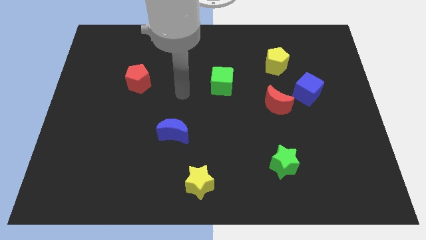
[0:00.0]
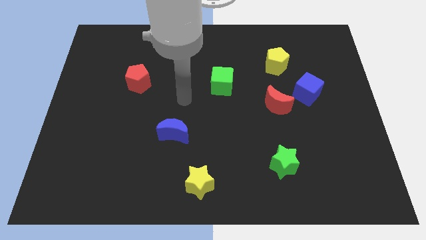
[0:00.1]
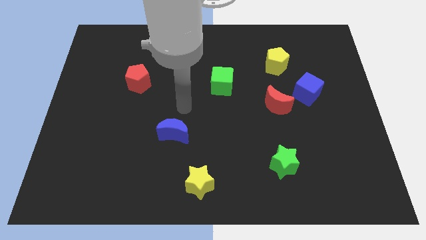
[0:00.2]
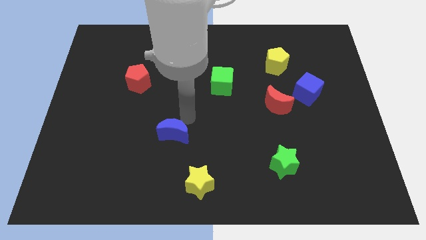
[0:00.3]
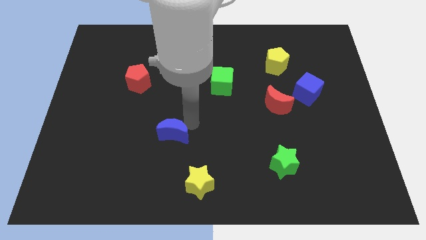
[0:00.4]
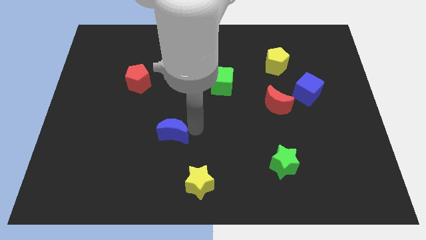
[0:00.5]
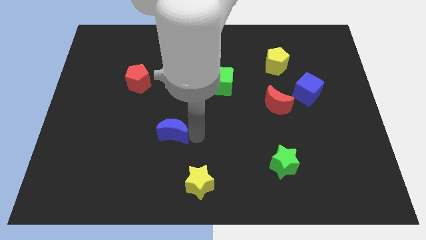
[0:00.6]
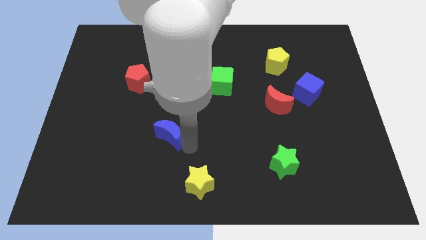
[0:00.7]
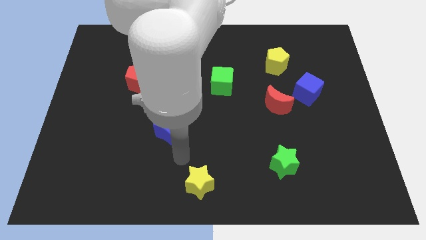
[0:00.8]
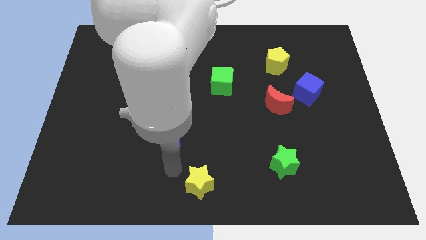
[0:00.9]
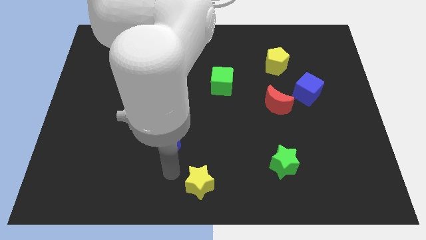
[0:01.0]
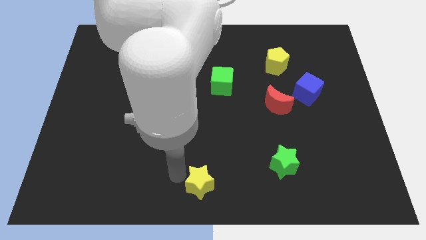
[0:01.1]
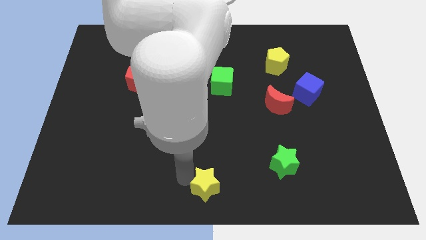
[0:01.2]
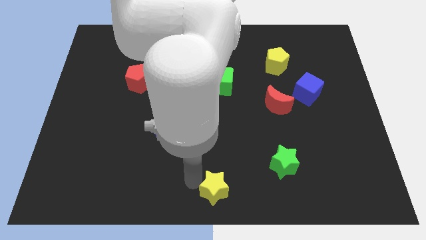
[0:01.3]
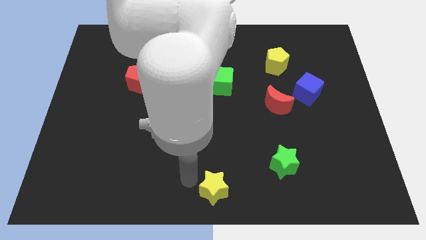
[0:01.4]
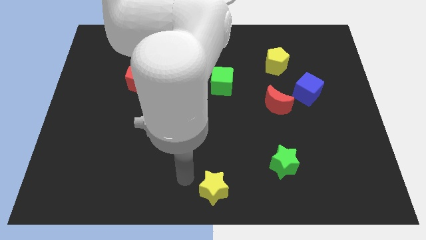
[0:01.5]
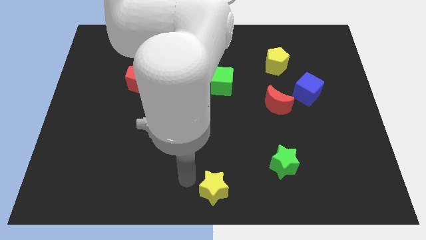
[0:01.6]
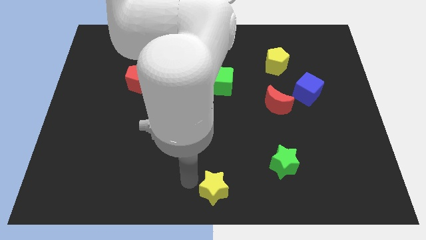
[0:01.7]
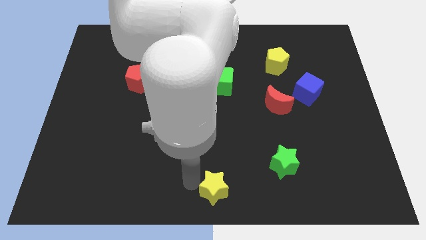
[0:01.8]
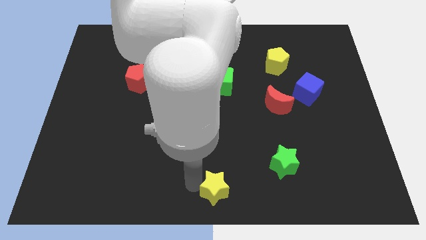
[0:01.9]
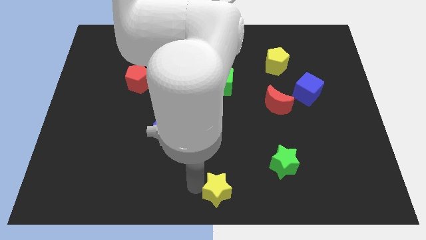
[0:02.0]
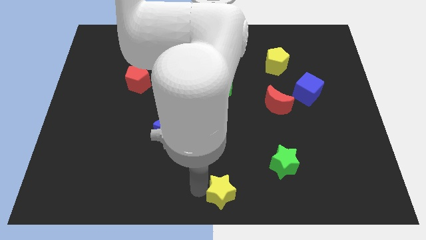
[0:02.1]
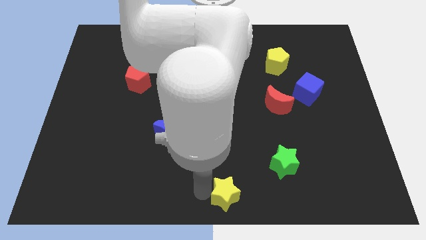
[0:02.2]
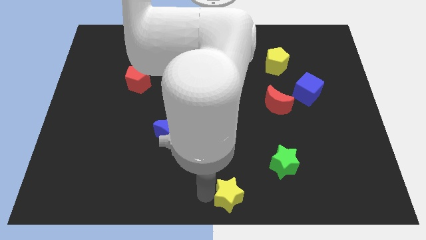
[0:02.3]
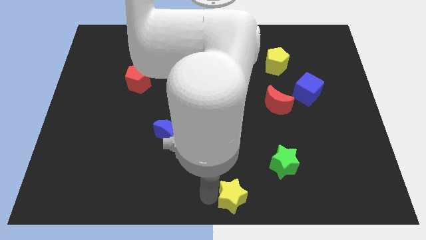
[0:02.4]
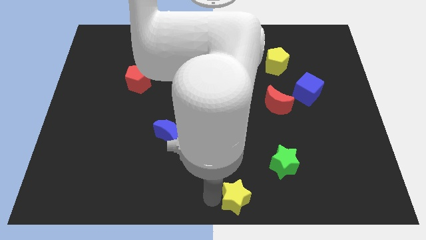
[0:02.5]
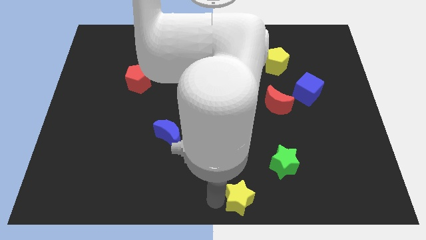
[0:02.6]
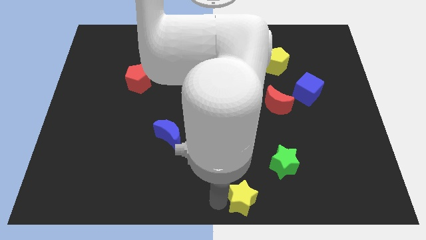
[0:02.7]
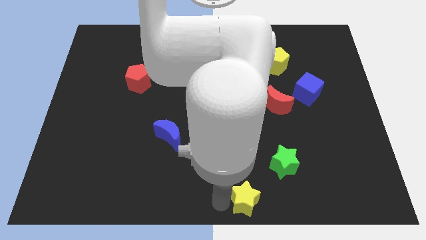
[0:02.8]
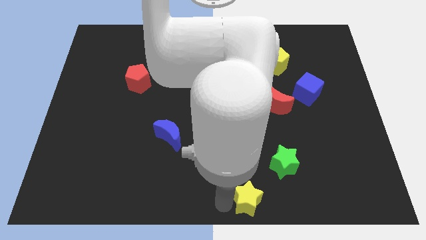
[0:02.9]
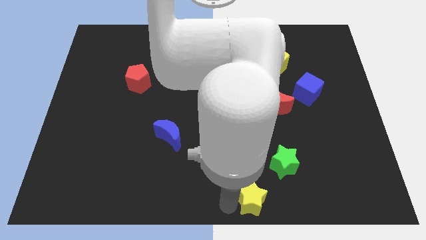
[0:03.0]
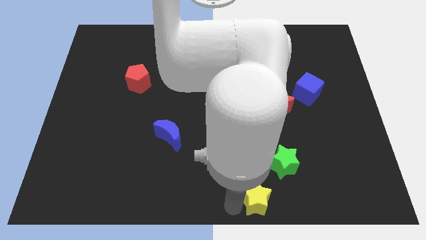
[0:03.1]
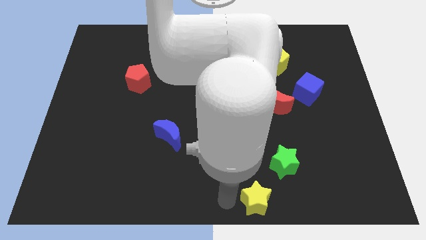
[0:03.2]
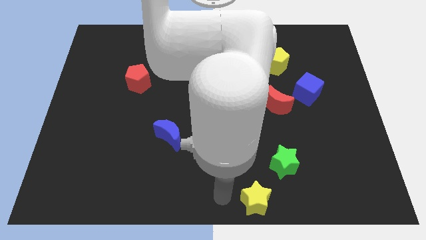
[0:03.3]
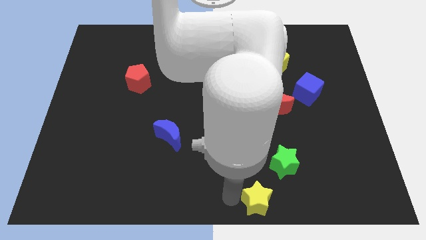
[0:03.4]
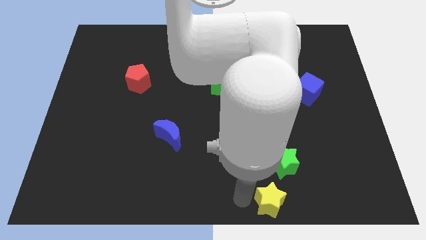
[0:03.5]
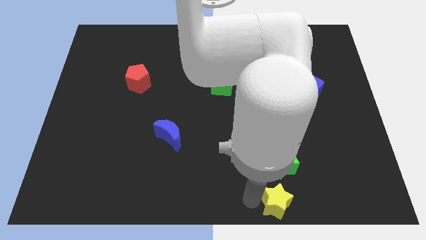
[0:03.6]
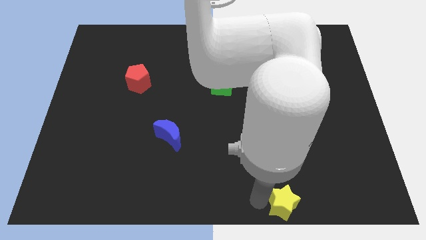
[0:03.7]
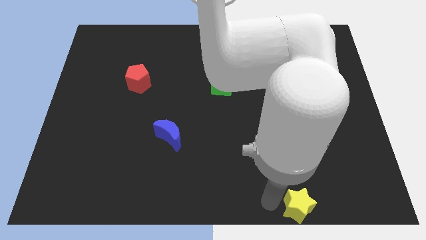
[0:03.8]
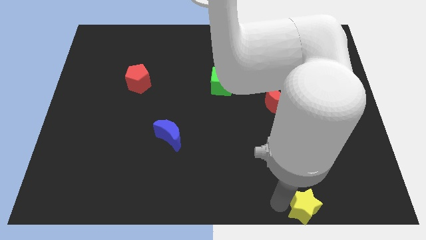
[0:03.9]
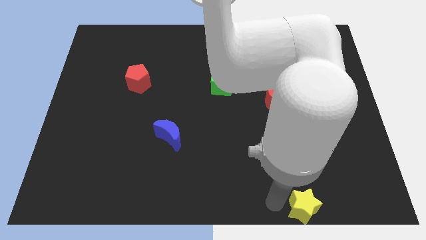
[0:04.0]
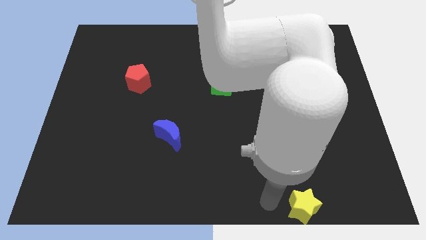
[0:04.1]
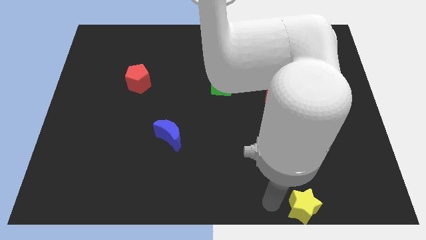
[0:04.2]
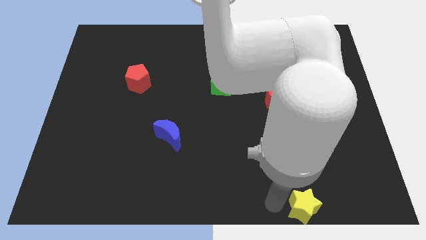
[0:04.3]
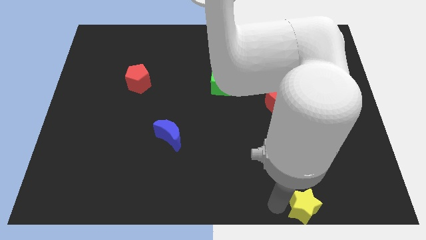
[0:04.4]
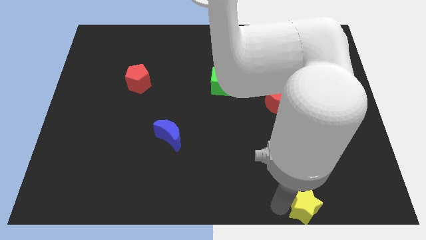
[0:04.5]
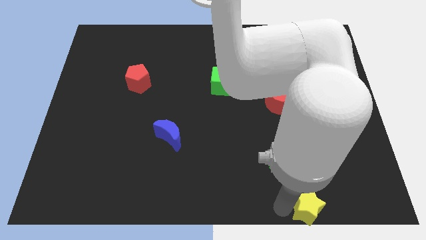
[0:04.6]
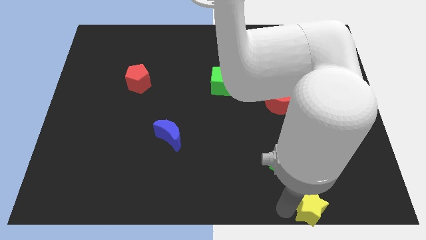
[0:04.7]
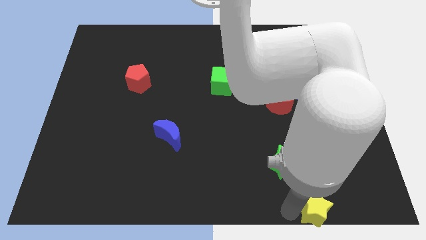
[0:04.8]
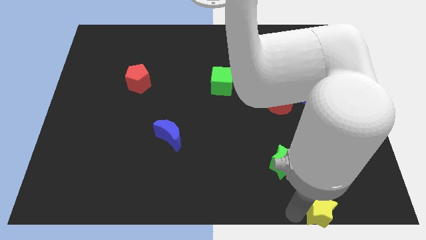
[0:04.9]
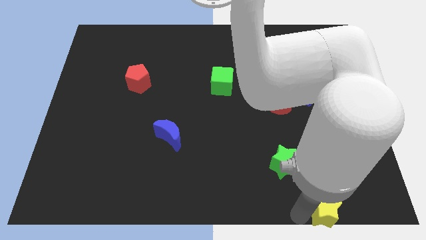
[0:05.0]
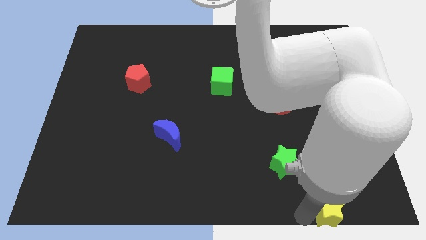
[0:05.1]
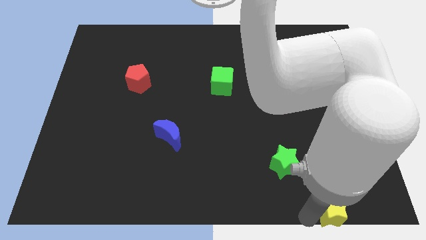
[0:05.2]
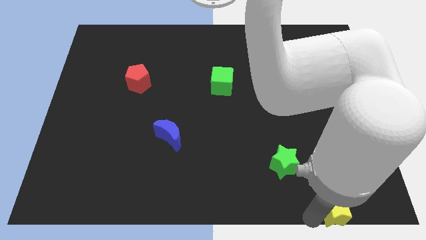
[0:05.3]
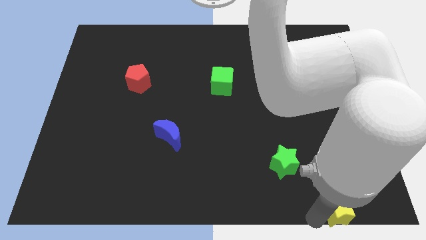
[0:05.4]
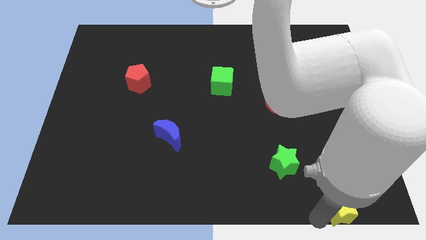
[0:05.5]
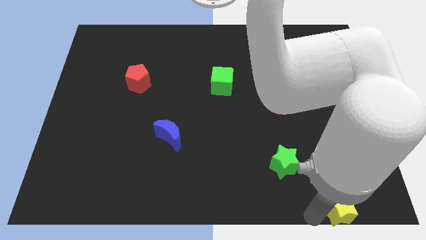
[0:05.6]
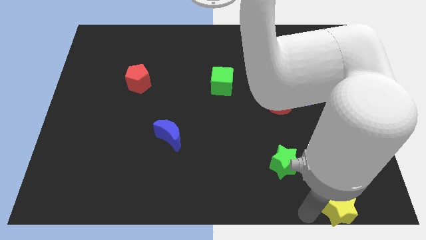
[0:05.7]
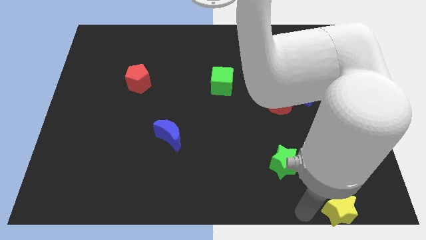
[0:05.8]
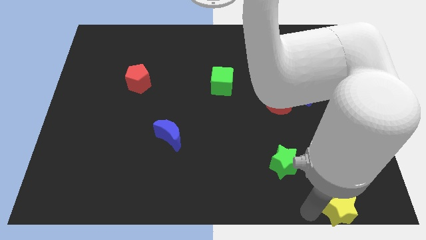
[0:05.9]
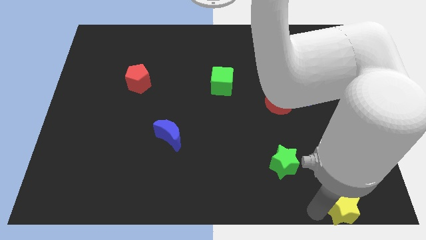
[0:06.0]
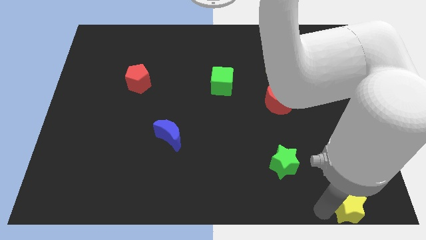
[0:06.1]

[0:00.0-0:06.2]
move the yellow star to the bottom right of the board
